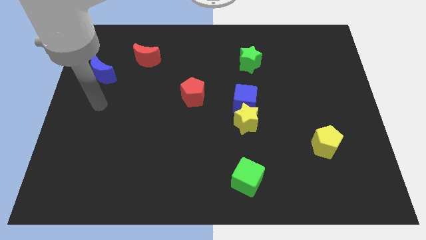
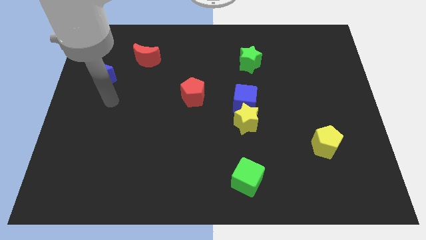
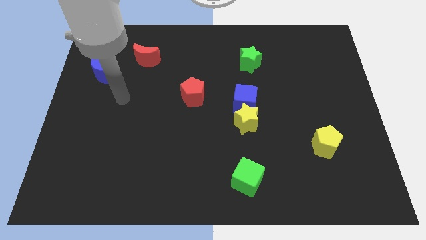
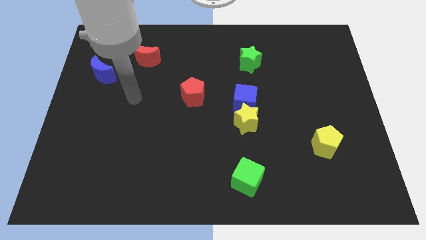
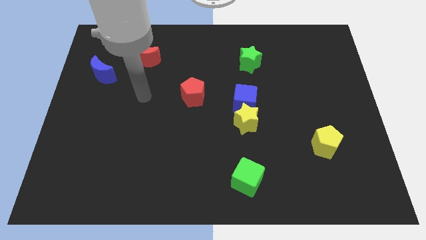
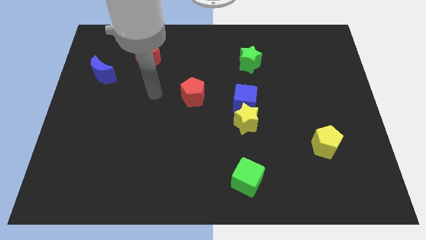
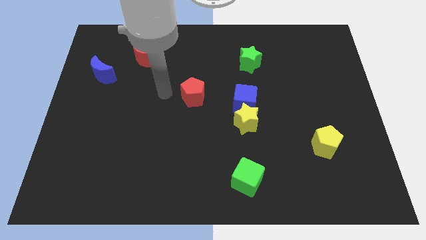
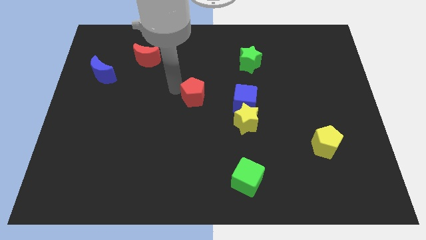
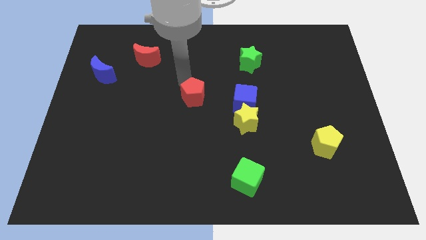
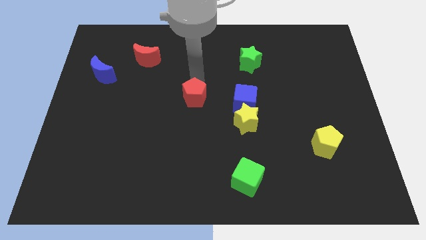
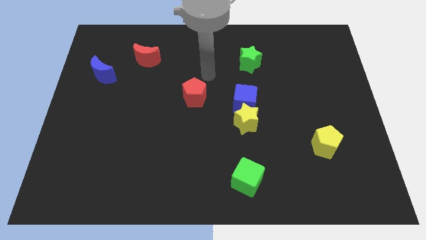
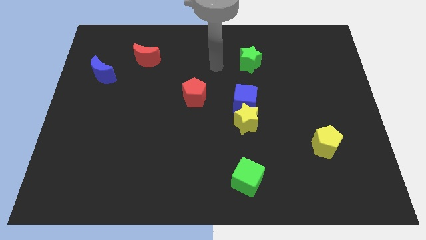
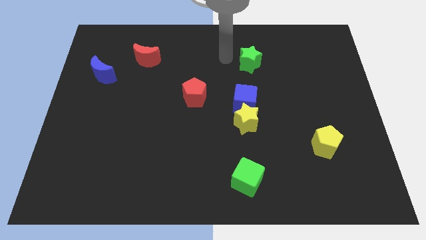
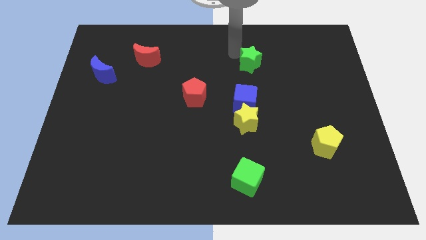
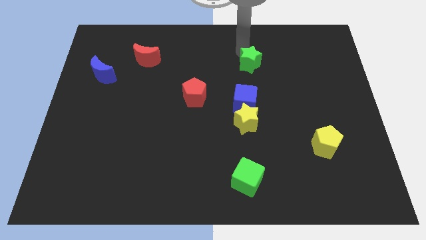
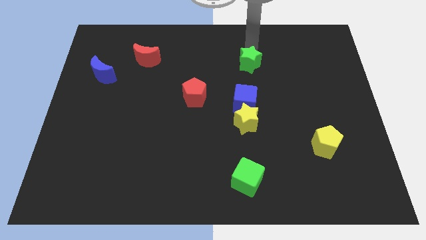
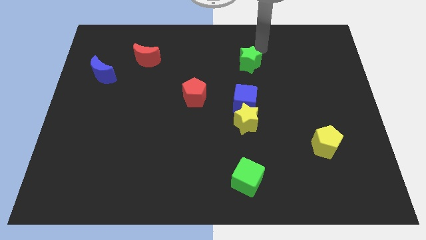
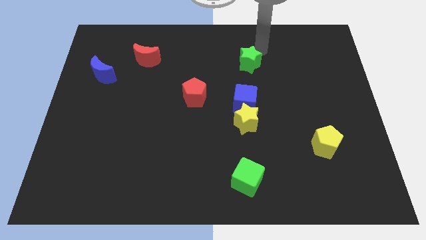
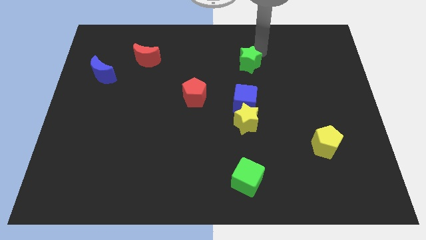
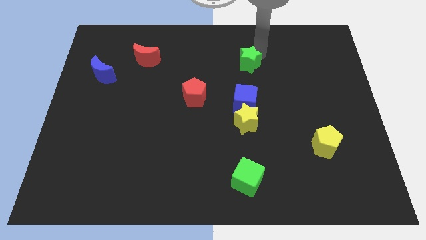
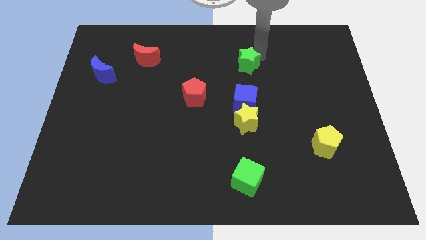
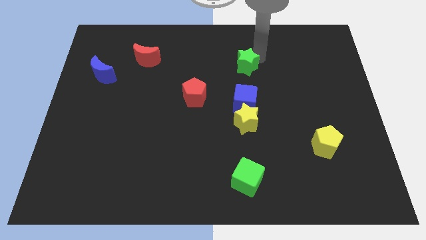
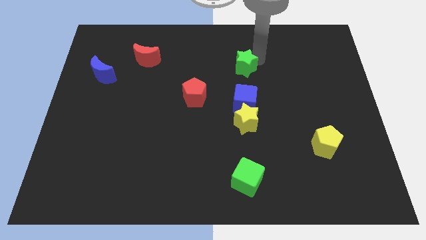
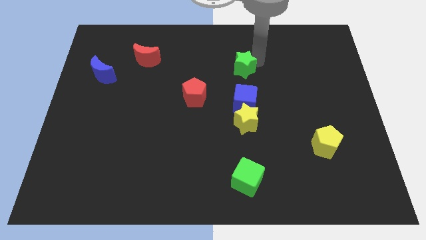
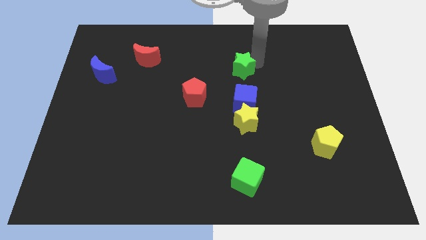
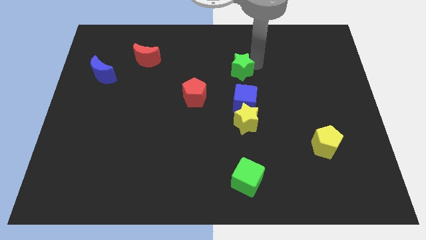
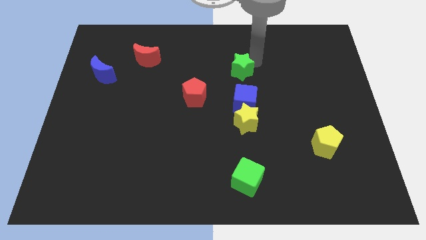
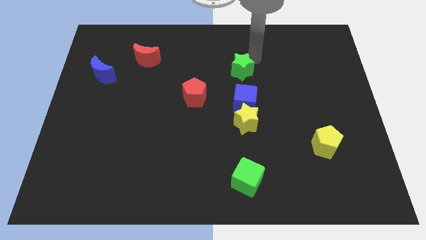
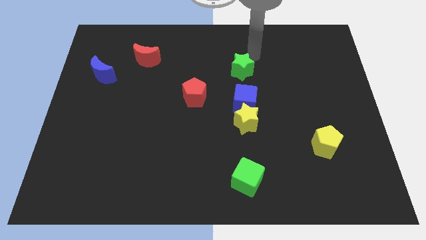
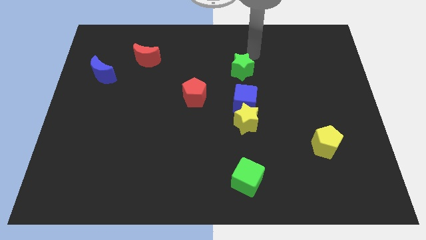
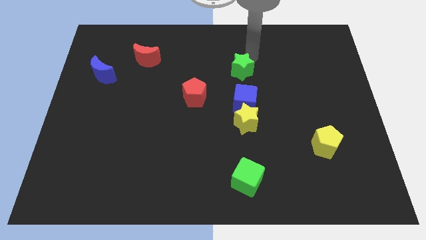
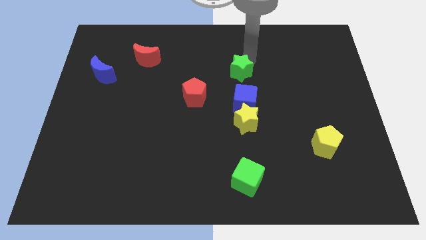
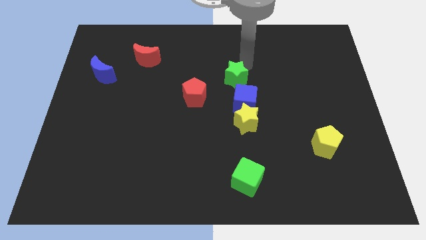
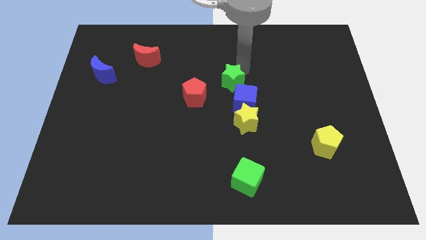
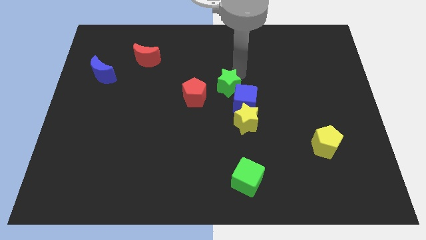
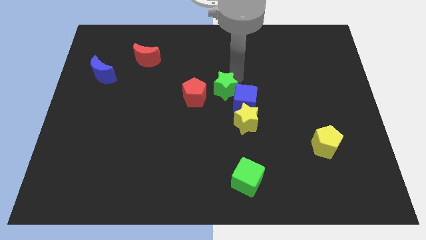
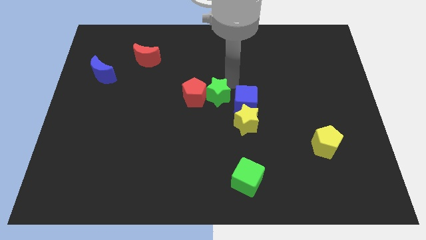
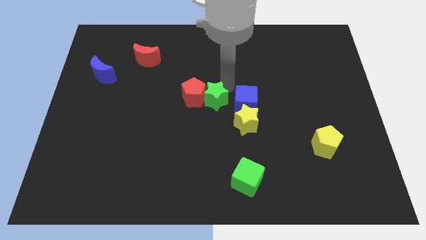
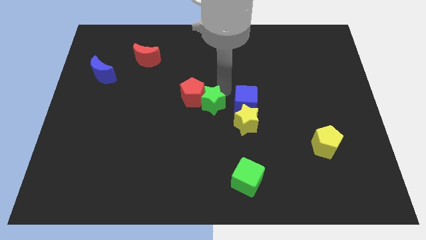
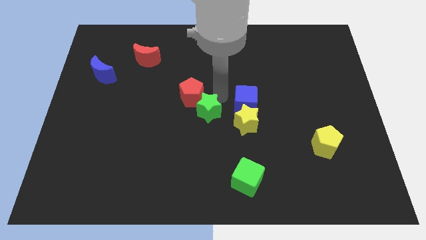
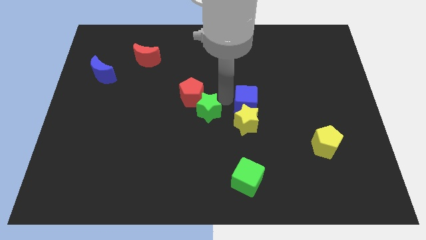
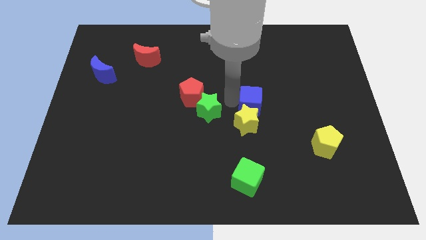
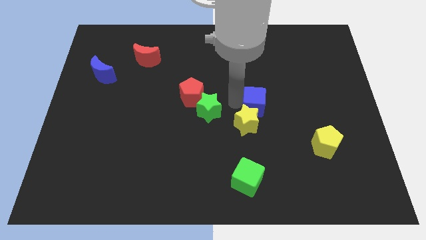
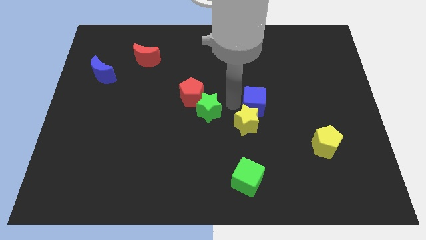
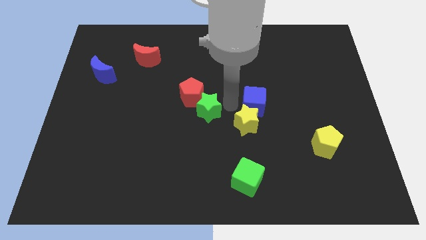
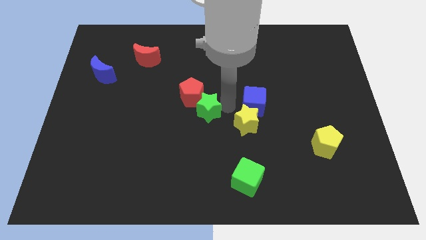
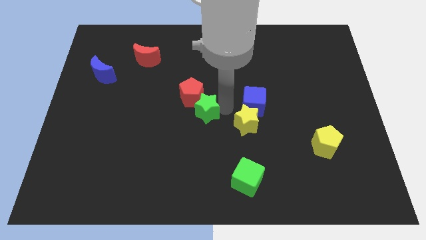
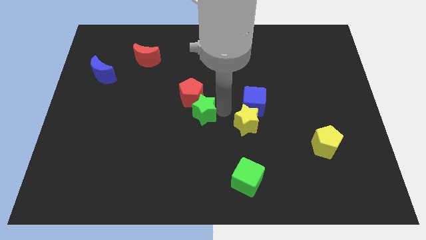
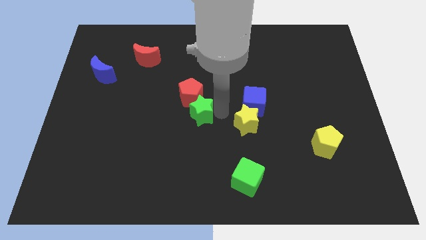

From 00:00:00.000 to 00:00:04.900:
push the green star down and then left

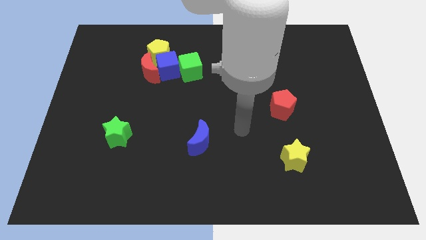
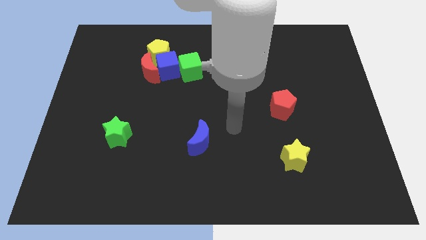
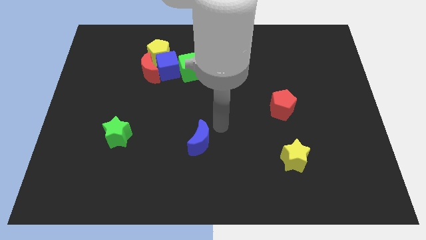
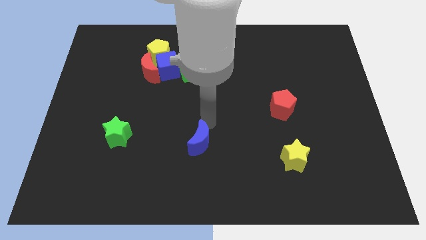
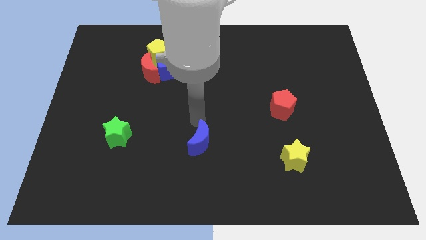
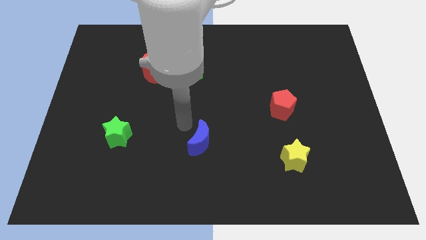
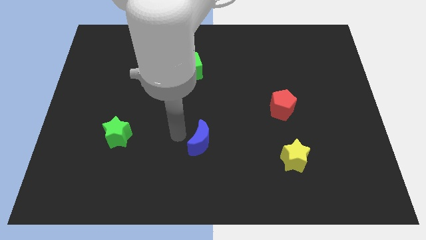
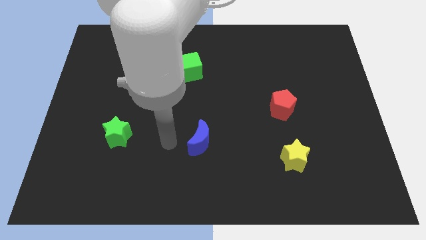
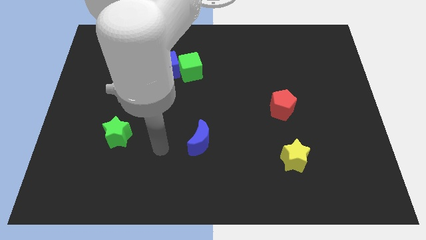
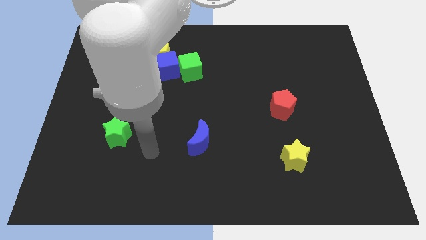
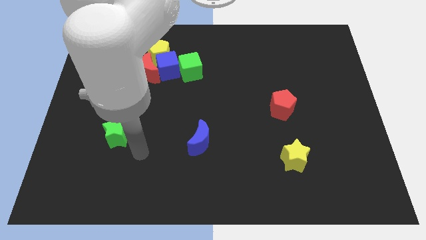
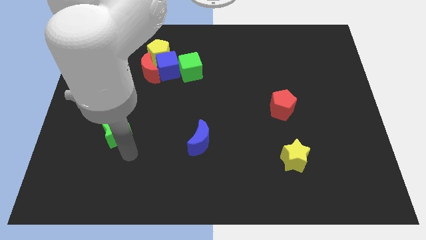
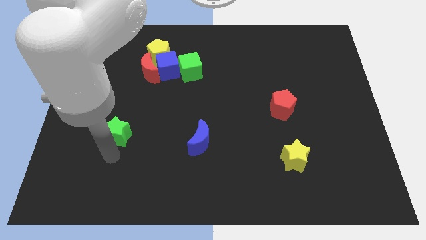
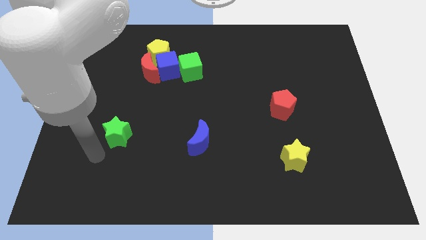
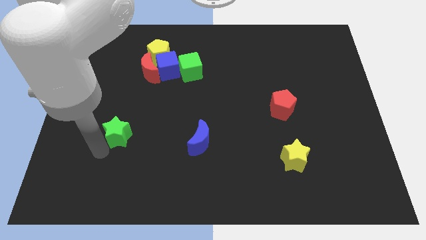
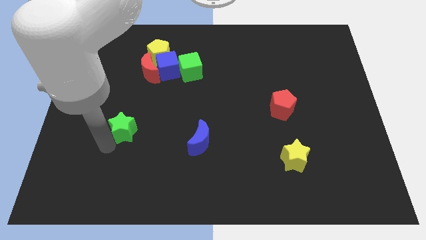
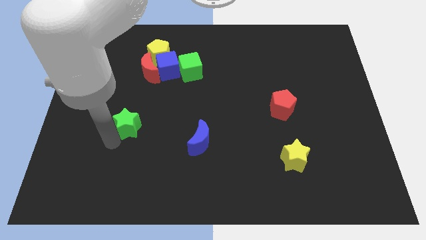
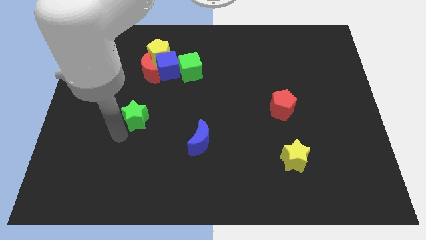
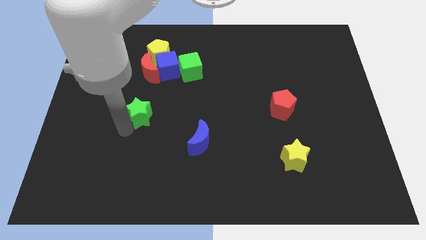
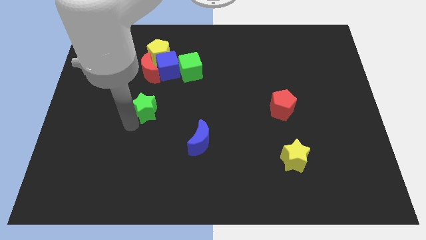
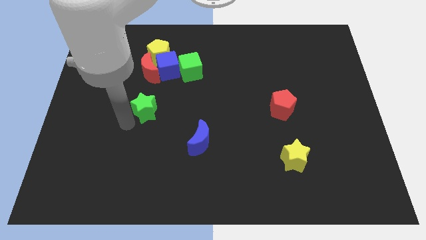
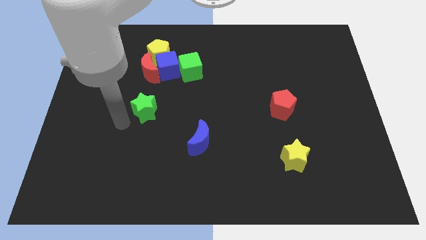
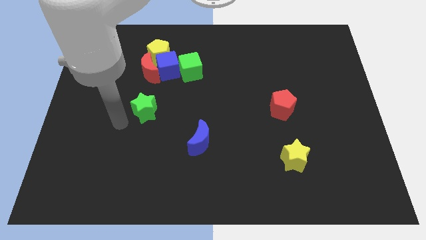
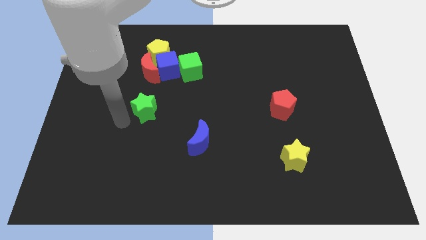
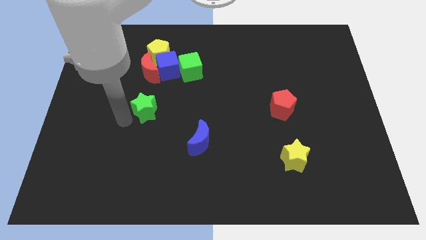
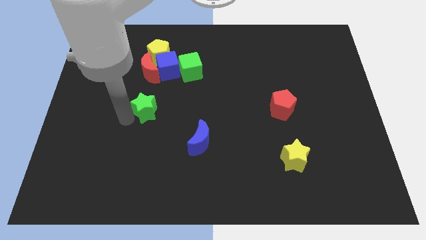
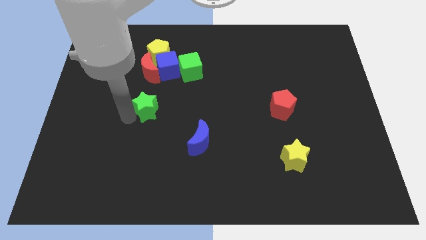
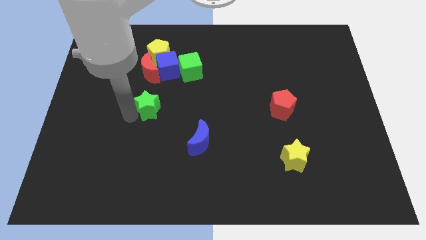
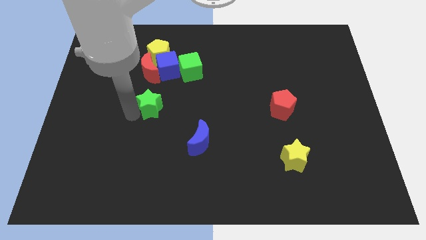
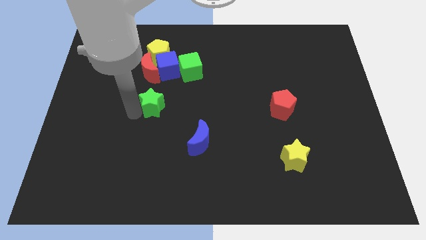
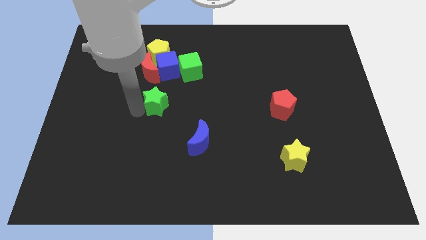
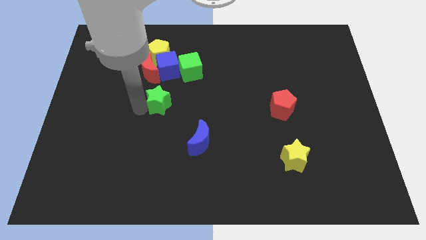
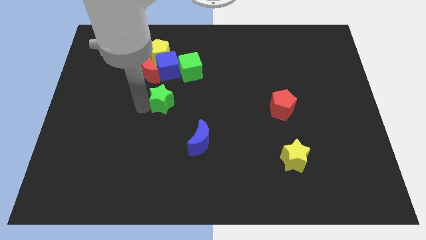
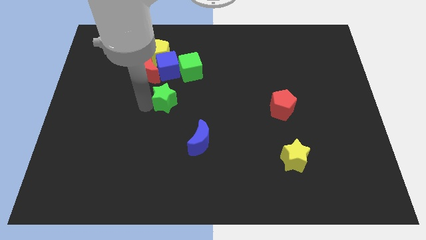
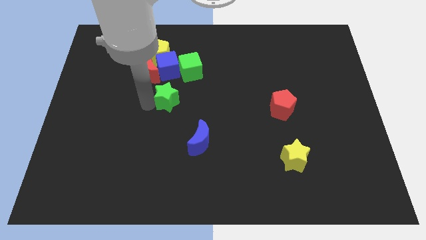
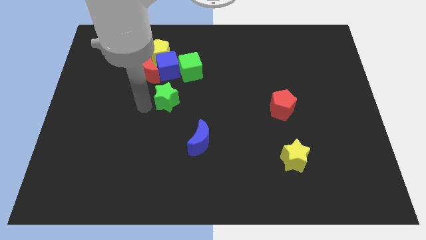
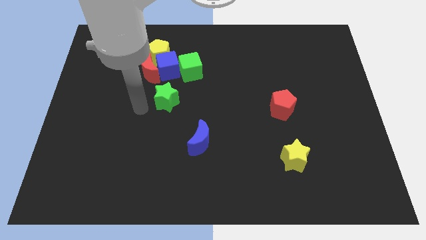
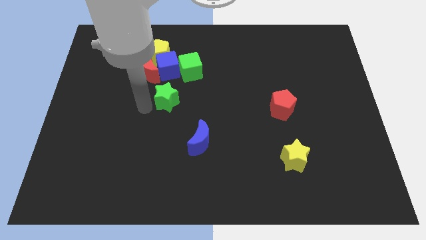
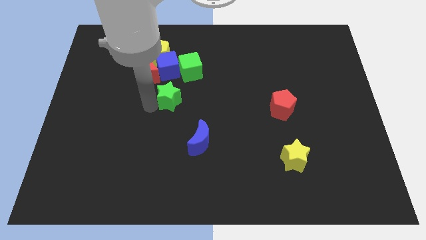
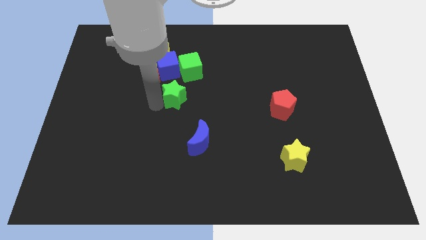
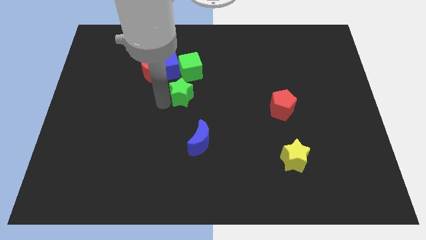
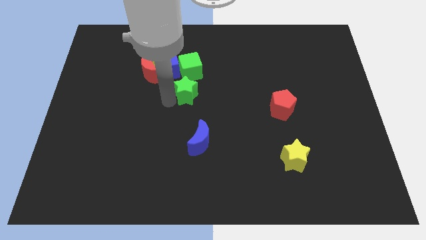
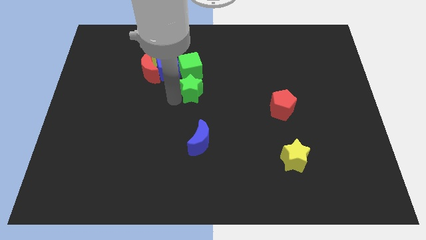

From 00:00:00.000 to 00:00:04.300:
move the green star upwards and then to the right
